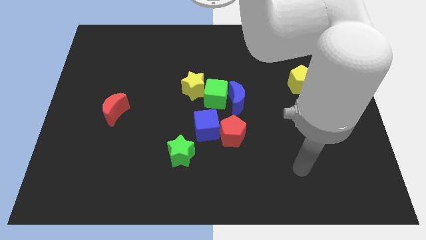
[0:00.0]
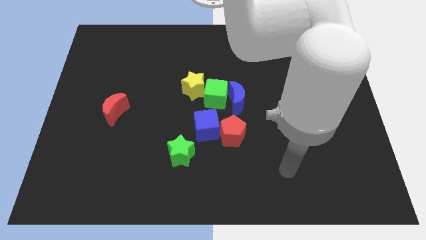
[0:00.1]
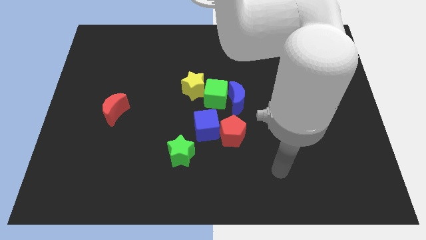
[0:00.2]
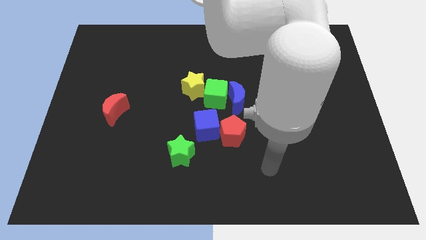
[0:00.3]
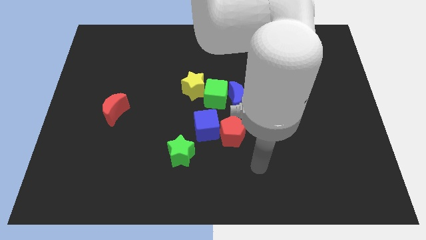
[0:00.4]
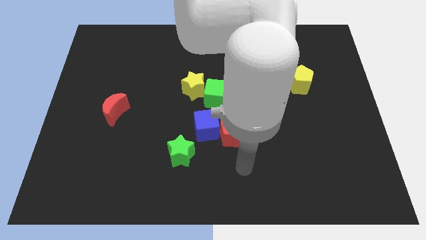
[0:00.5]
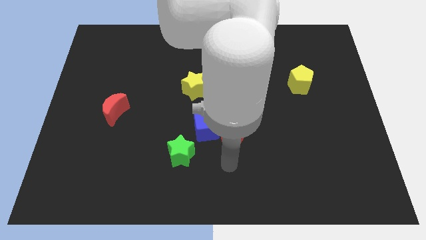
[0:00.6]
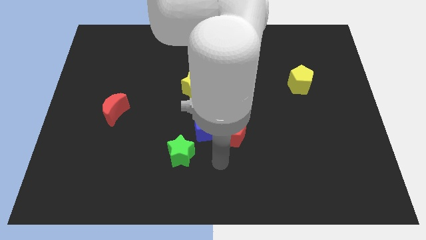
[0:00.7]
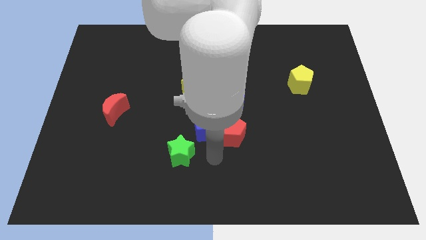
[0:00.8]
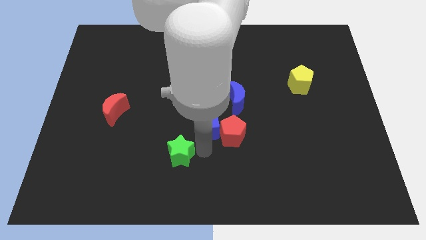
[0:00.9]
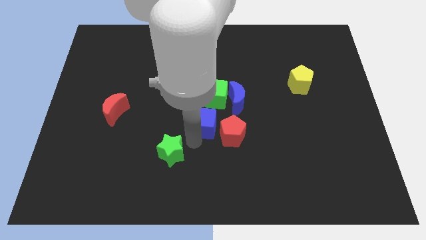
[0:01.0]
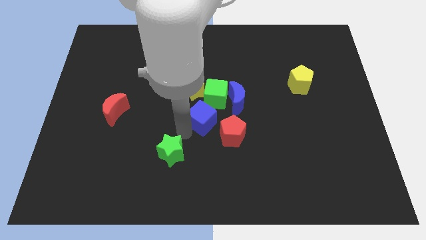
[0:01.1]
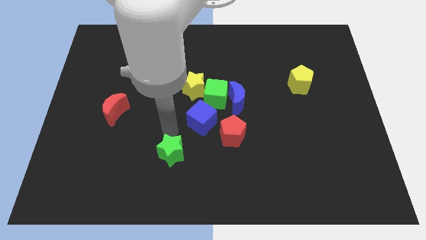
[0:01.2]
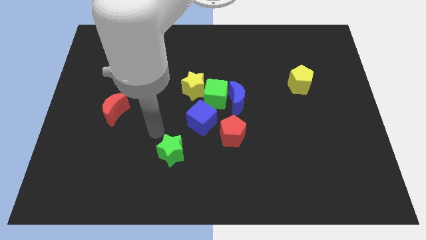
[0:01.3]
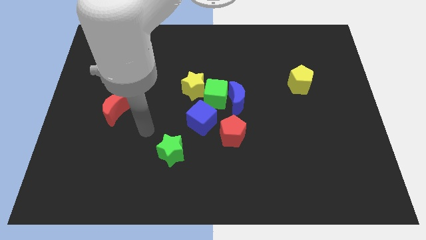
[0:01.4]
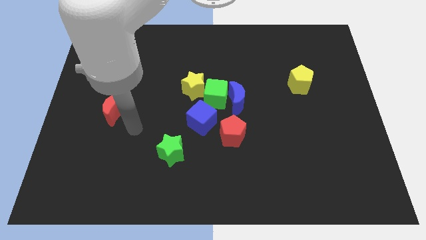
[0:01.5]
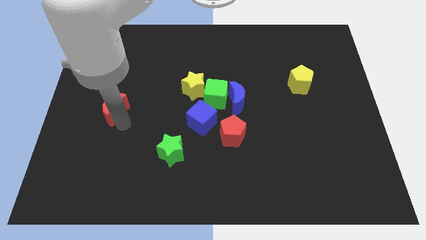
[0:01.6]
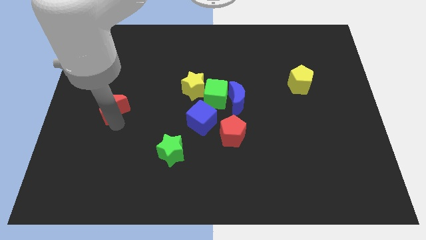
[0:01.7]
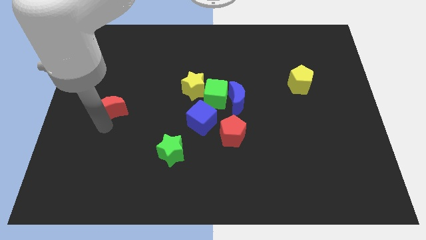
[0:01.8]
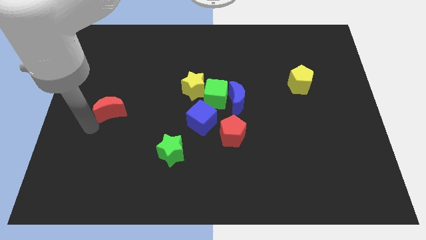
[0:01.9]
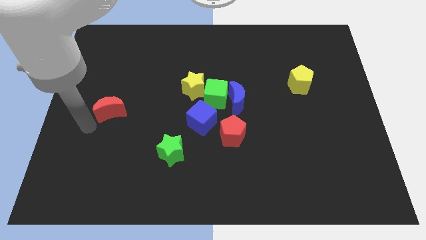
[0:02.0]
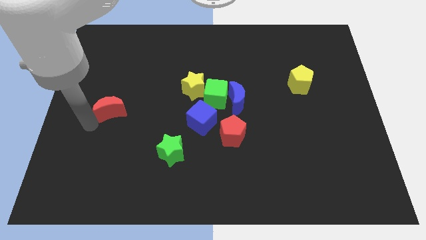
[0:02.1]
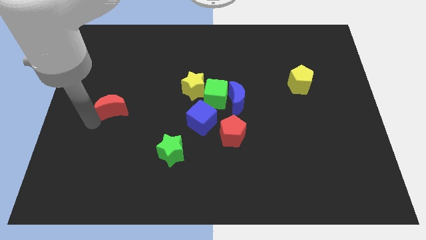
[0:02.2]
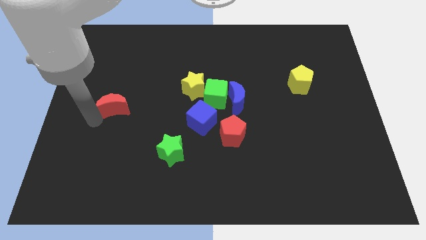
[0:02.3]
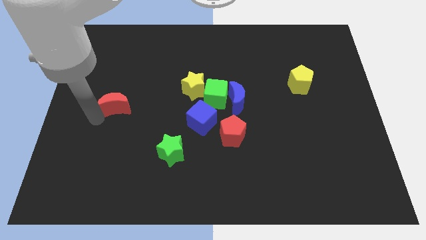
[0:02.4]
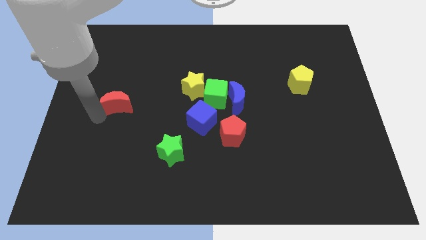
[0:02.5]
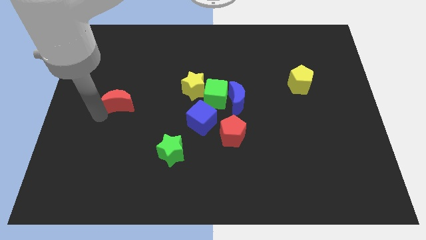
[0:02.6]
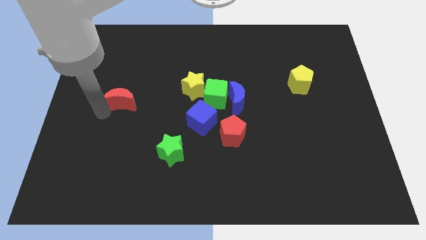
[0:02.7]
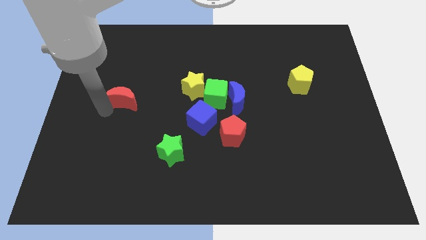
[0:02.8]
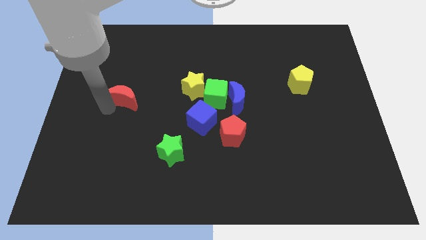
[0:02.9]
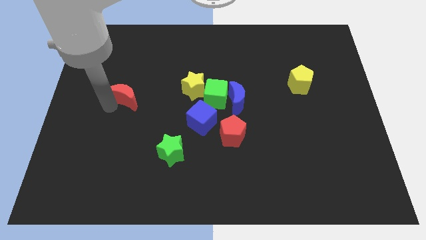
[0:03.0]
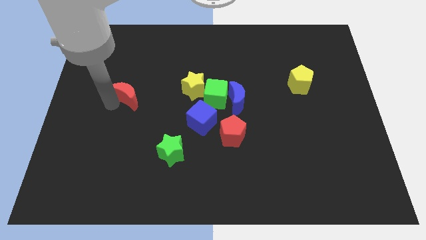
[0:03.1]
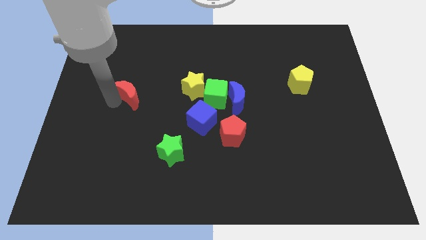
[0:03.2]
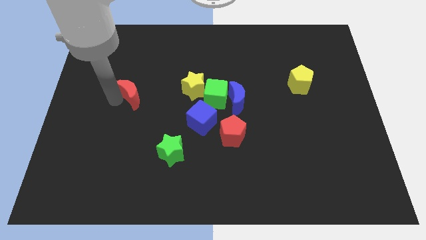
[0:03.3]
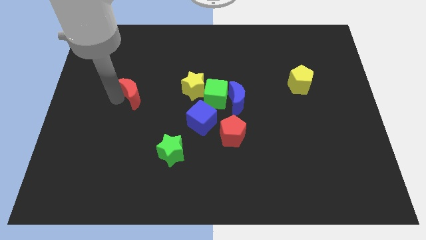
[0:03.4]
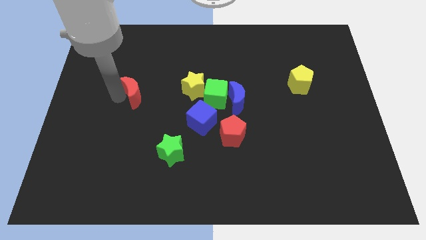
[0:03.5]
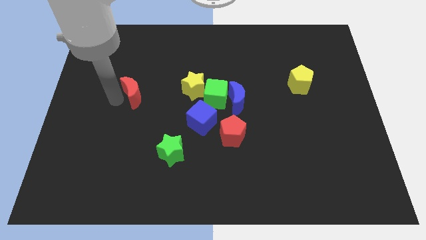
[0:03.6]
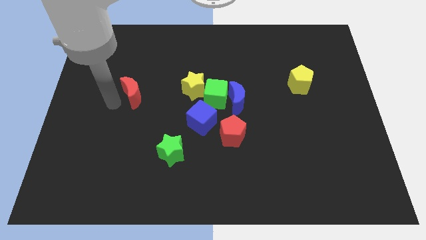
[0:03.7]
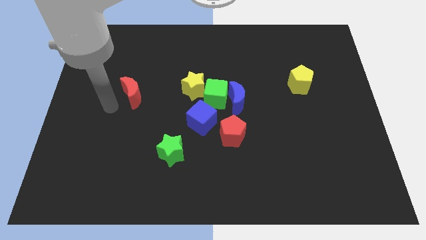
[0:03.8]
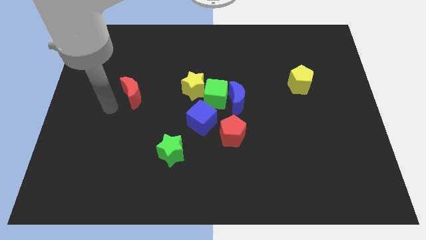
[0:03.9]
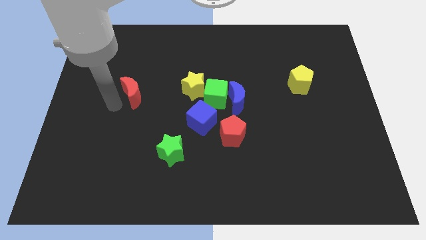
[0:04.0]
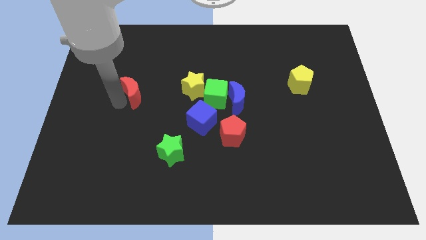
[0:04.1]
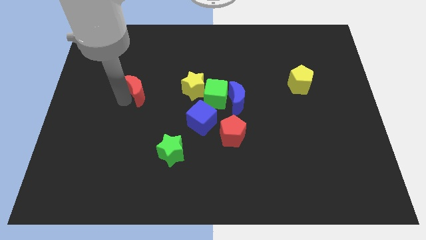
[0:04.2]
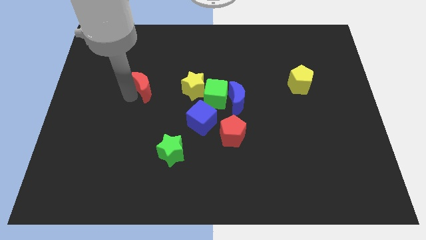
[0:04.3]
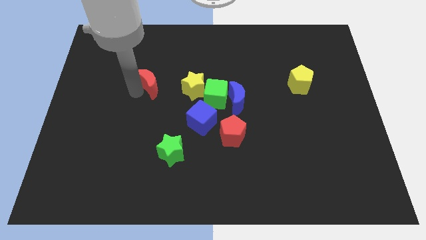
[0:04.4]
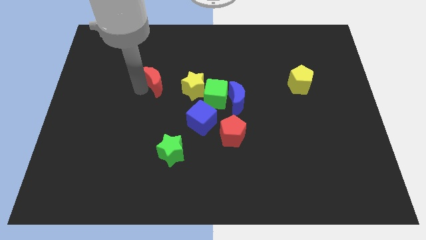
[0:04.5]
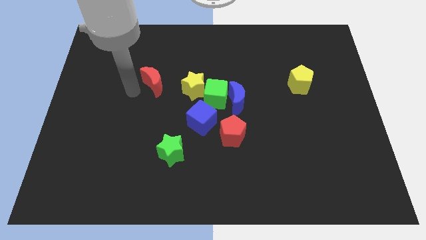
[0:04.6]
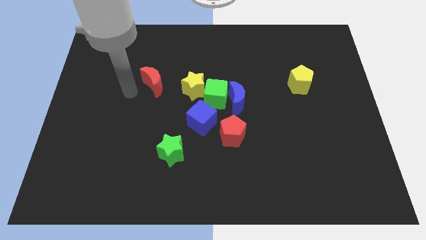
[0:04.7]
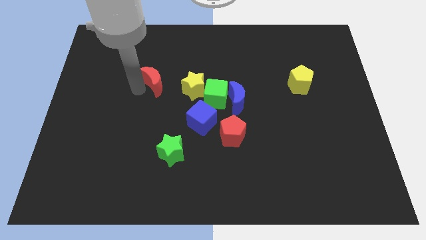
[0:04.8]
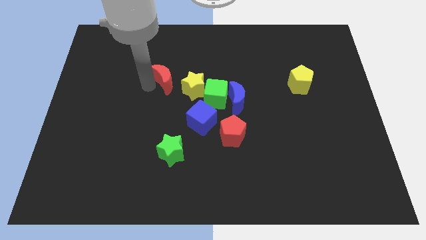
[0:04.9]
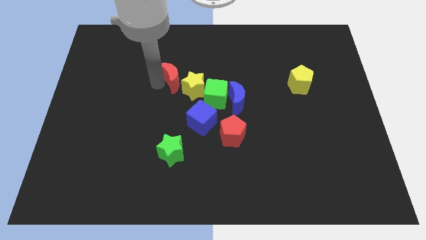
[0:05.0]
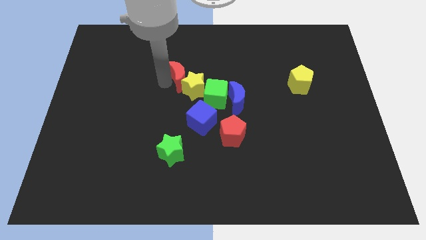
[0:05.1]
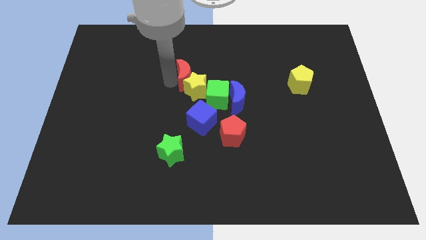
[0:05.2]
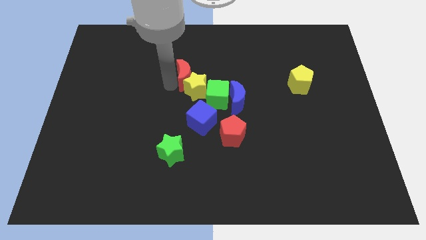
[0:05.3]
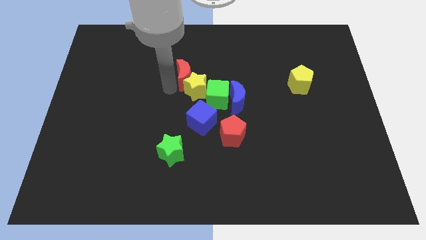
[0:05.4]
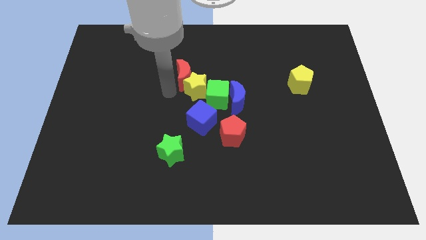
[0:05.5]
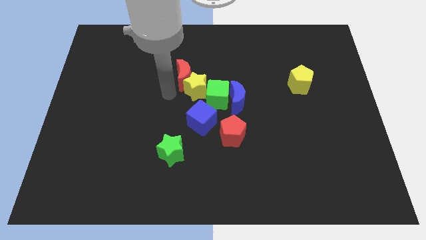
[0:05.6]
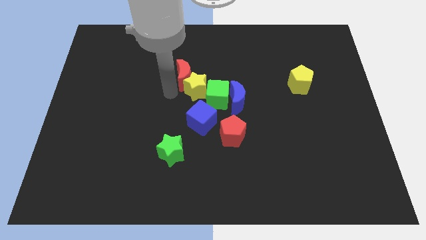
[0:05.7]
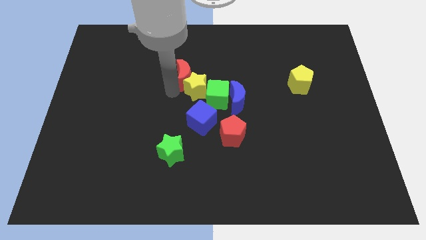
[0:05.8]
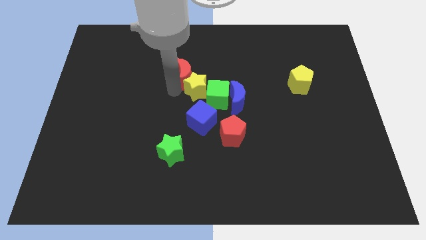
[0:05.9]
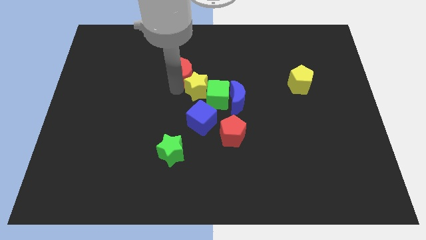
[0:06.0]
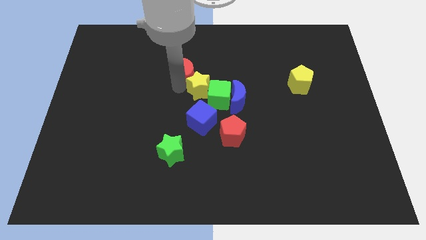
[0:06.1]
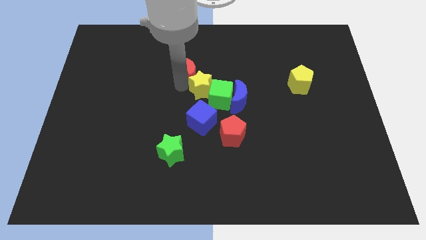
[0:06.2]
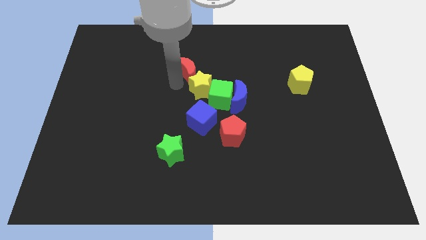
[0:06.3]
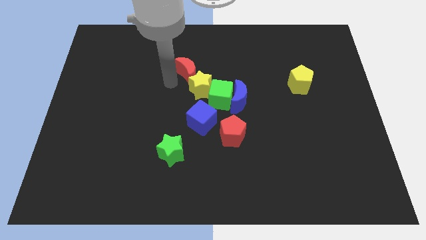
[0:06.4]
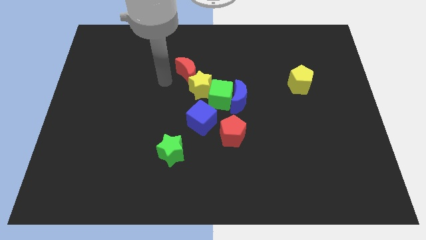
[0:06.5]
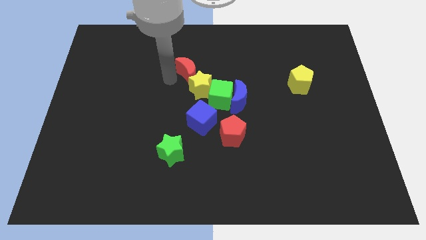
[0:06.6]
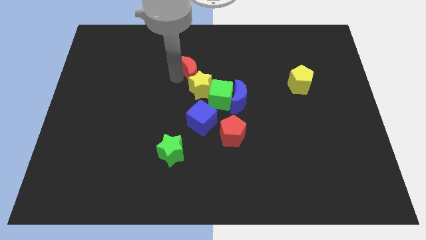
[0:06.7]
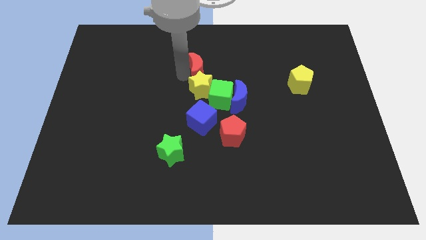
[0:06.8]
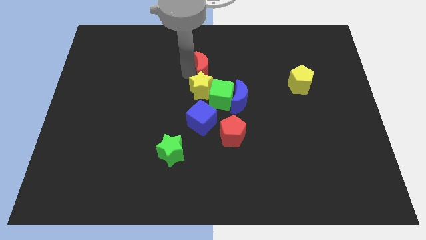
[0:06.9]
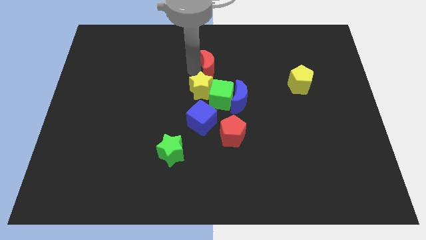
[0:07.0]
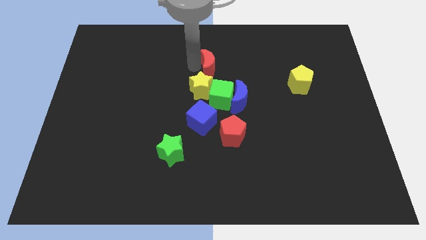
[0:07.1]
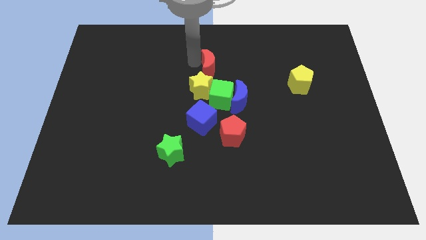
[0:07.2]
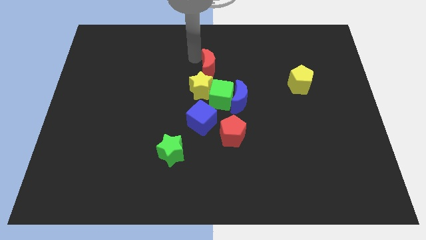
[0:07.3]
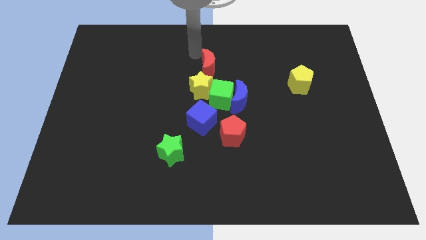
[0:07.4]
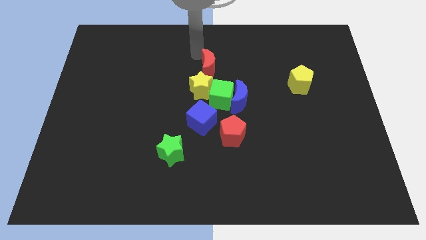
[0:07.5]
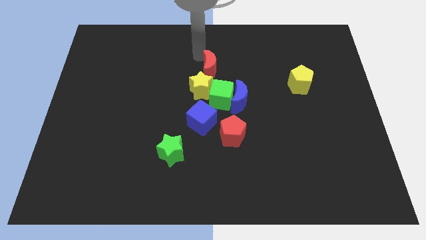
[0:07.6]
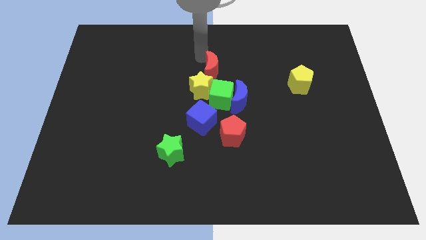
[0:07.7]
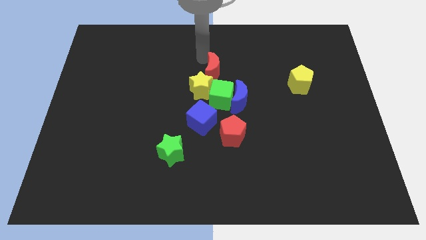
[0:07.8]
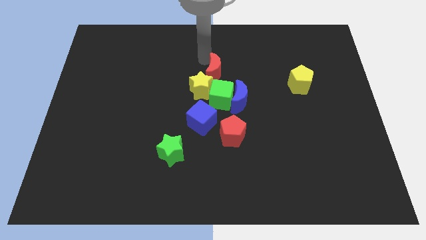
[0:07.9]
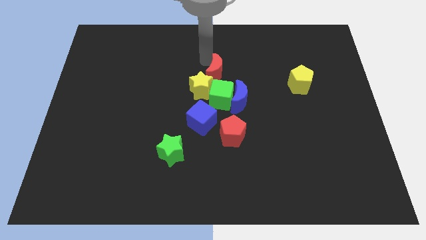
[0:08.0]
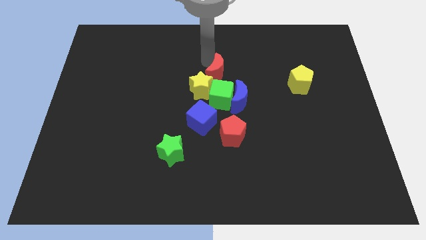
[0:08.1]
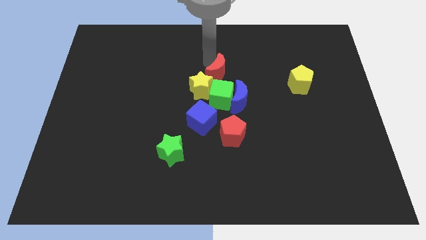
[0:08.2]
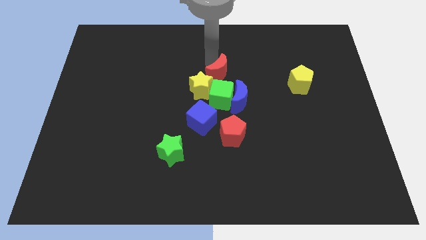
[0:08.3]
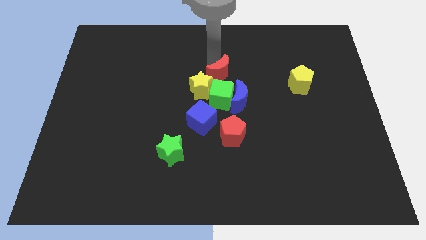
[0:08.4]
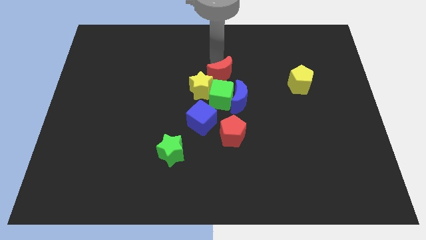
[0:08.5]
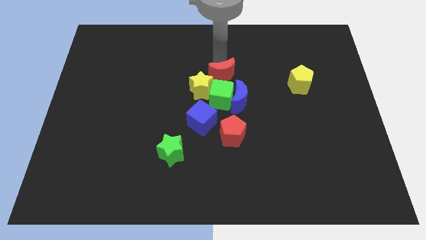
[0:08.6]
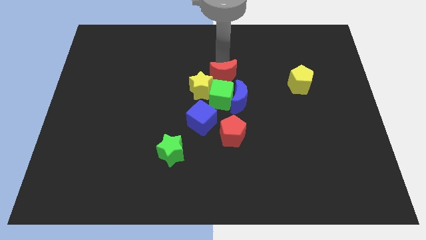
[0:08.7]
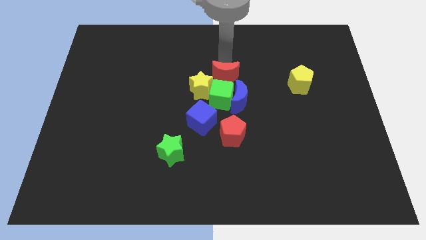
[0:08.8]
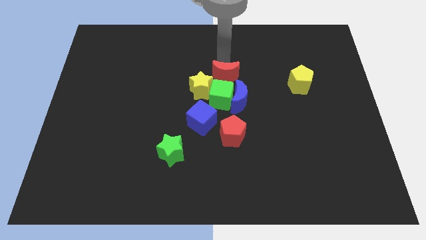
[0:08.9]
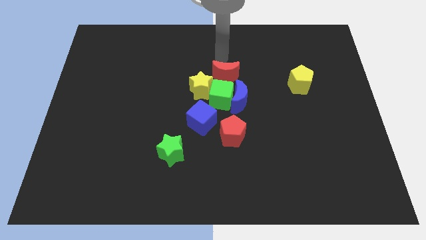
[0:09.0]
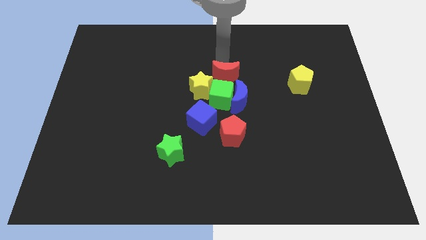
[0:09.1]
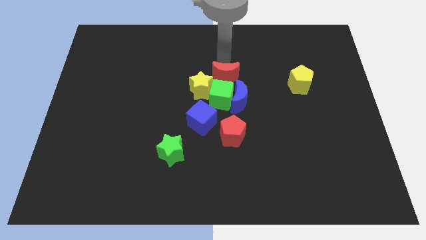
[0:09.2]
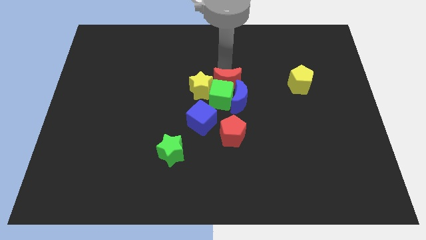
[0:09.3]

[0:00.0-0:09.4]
slide the red moon above the red pentagon
